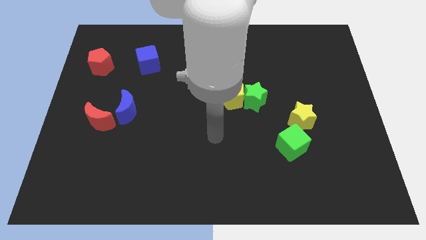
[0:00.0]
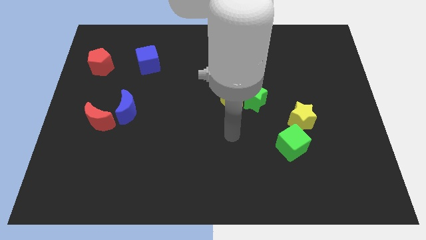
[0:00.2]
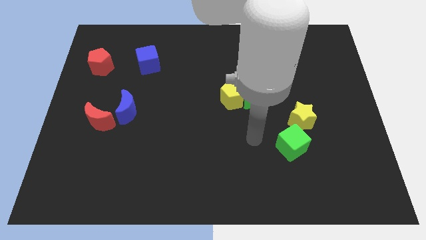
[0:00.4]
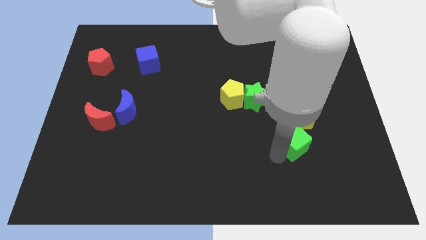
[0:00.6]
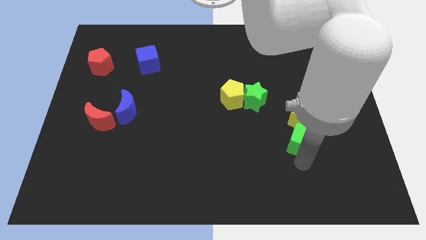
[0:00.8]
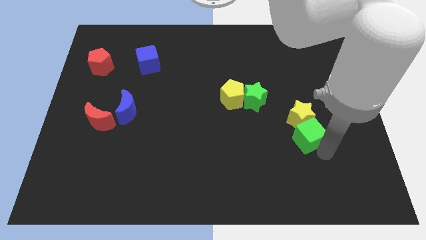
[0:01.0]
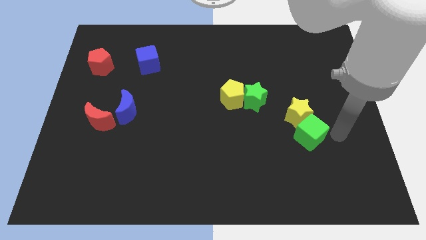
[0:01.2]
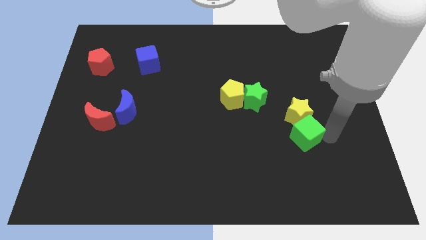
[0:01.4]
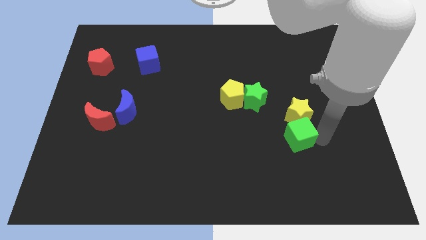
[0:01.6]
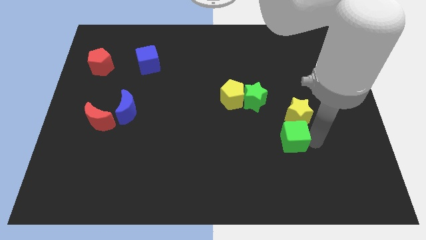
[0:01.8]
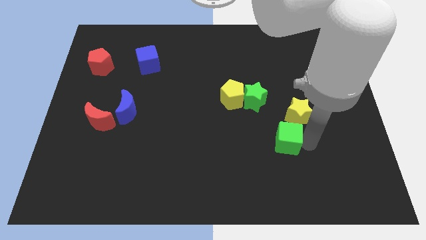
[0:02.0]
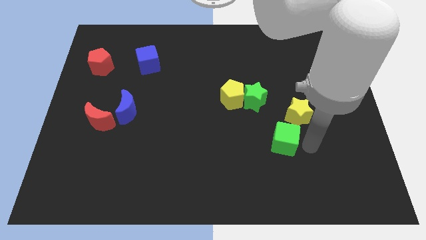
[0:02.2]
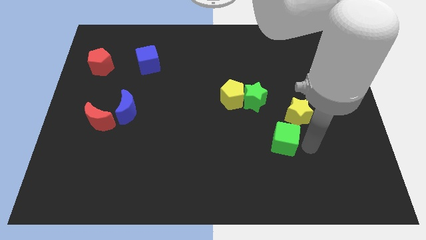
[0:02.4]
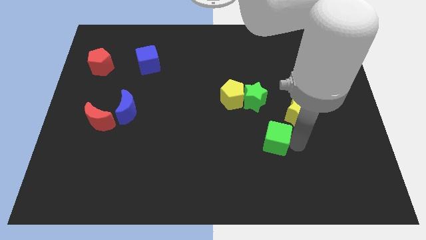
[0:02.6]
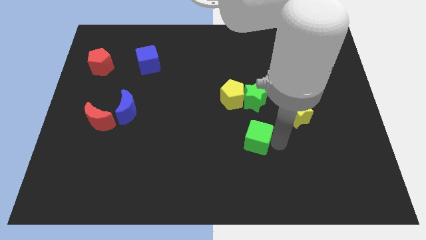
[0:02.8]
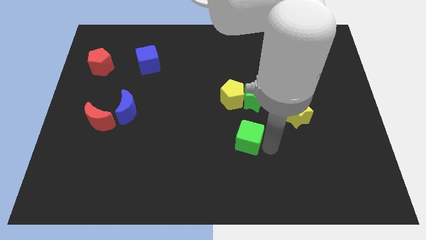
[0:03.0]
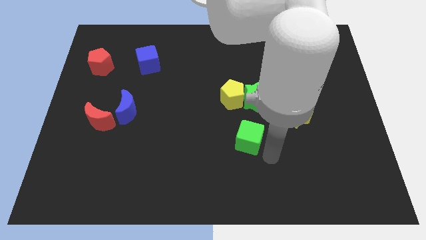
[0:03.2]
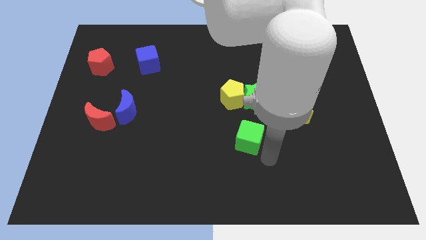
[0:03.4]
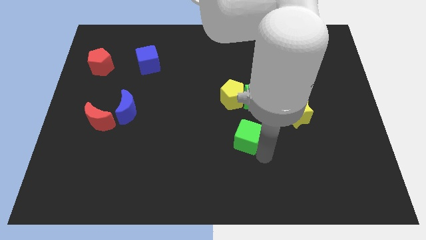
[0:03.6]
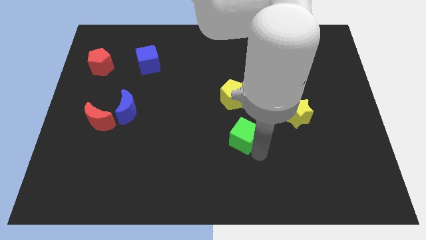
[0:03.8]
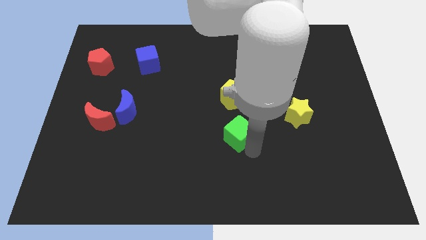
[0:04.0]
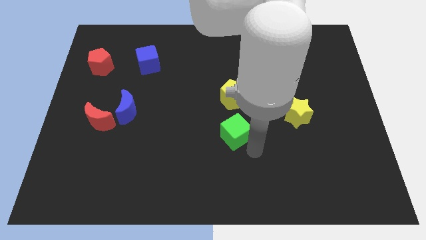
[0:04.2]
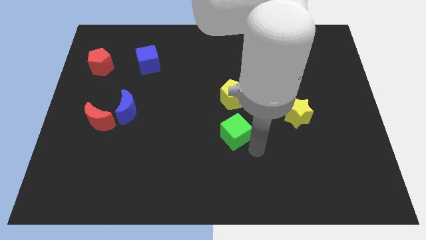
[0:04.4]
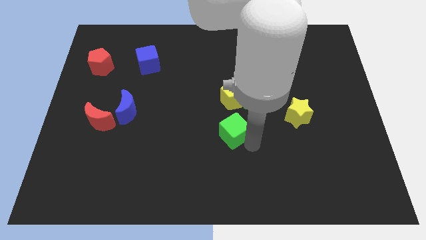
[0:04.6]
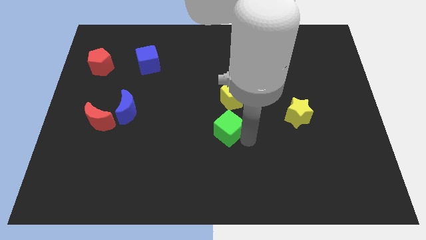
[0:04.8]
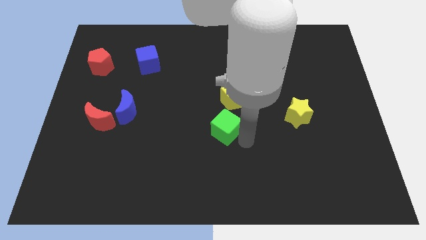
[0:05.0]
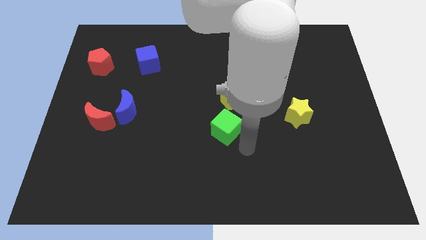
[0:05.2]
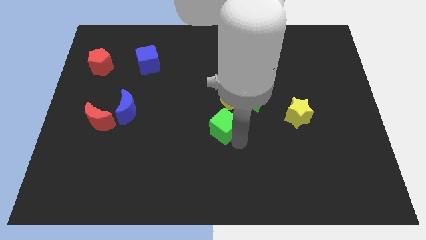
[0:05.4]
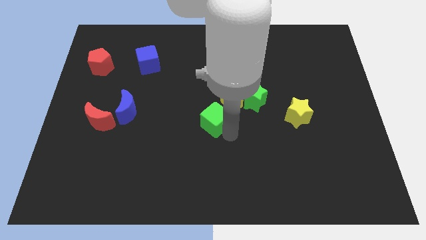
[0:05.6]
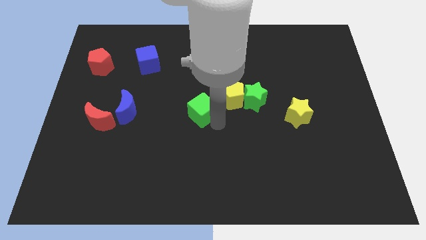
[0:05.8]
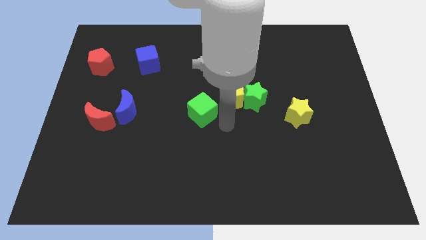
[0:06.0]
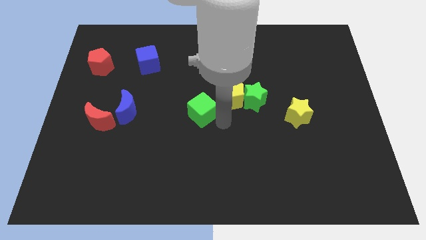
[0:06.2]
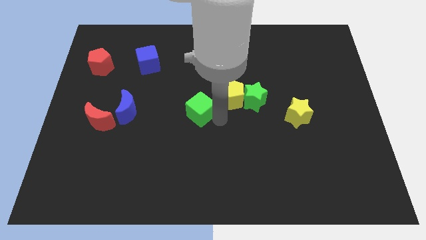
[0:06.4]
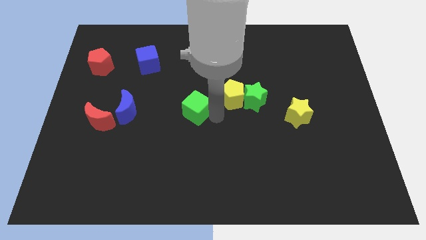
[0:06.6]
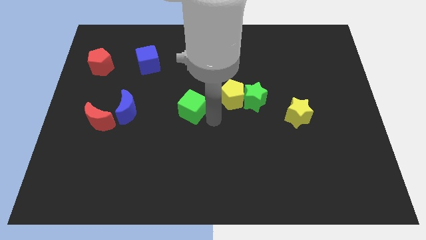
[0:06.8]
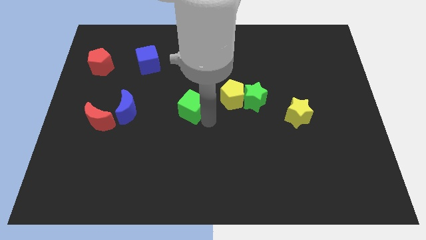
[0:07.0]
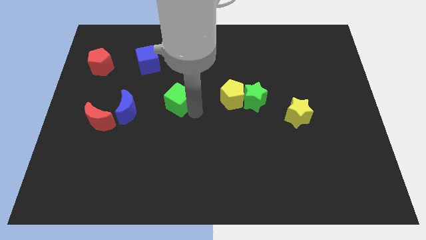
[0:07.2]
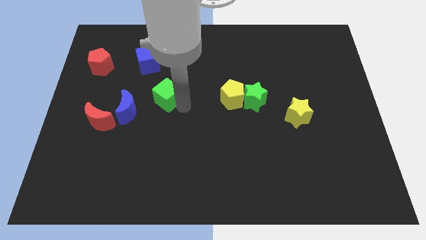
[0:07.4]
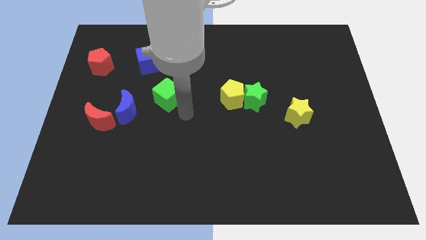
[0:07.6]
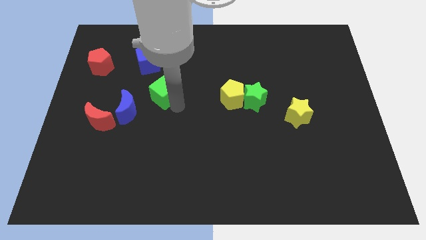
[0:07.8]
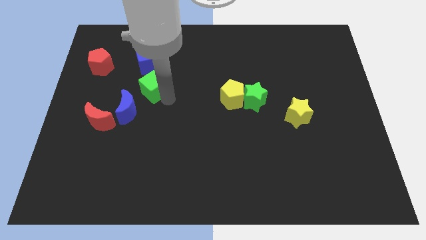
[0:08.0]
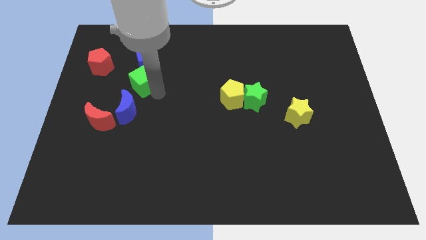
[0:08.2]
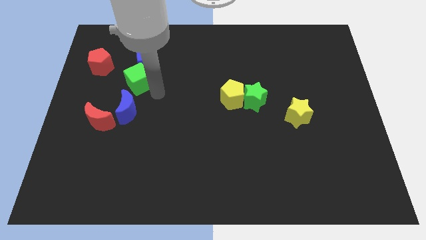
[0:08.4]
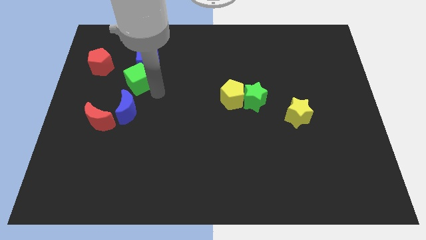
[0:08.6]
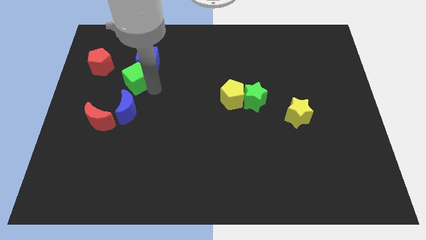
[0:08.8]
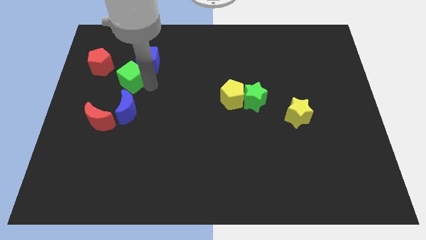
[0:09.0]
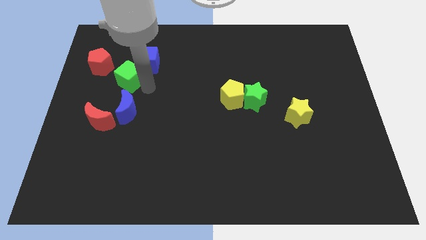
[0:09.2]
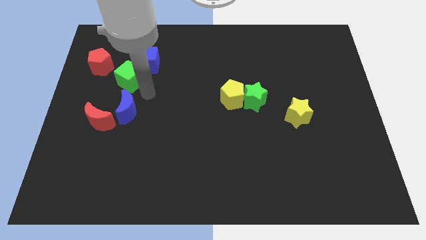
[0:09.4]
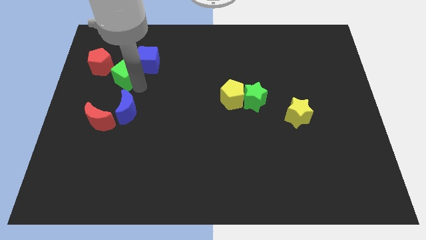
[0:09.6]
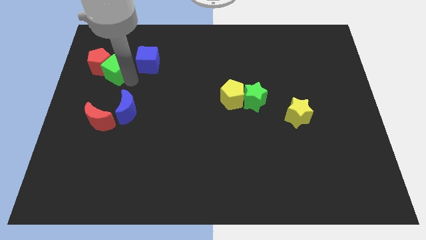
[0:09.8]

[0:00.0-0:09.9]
move the green cube next to the red pentagon

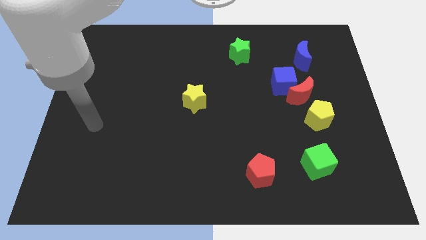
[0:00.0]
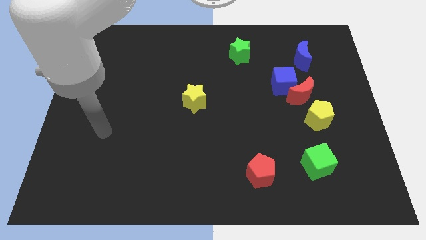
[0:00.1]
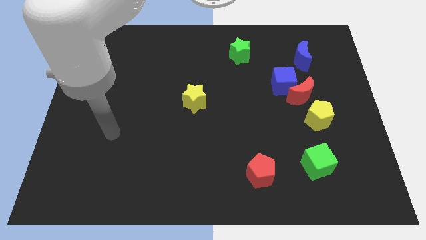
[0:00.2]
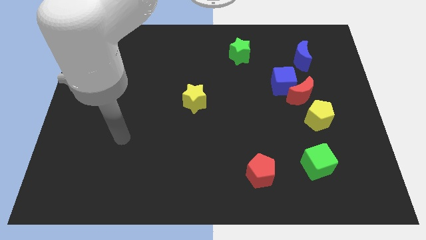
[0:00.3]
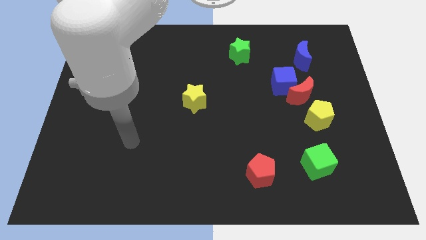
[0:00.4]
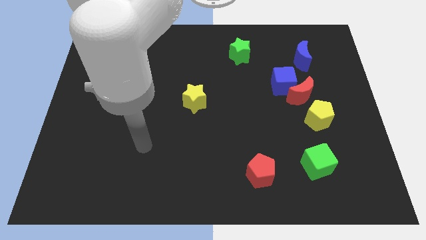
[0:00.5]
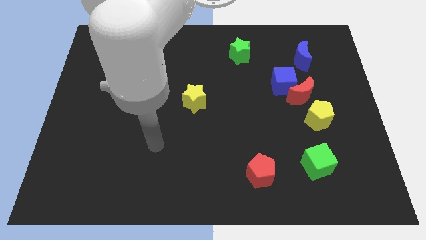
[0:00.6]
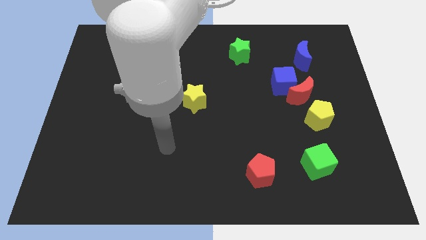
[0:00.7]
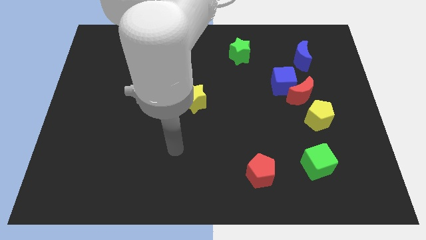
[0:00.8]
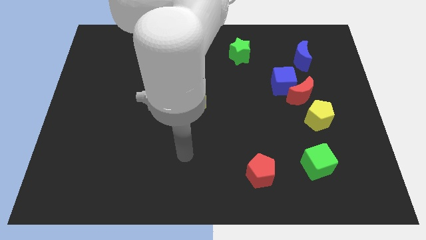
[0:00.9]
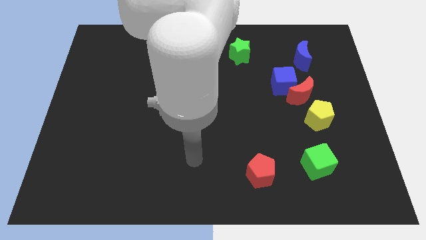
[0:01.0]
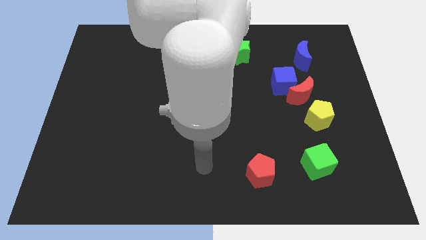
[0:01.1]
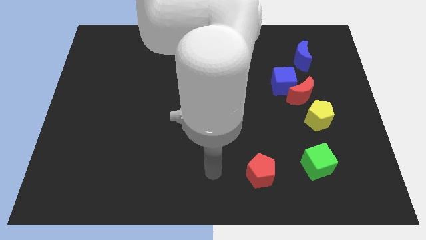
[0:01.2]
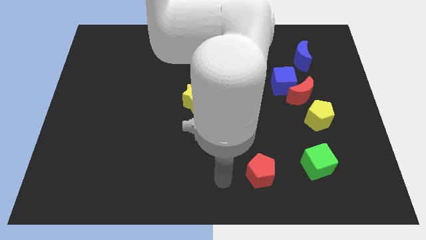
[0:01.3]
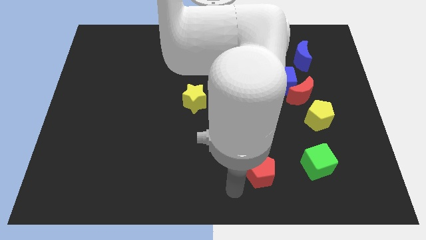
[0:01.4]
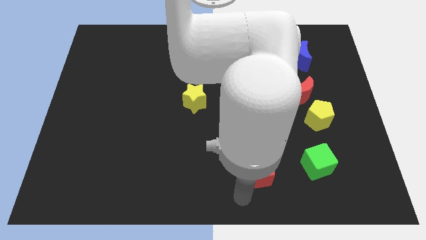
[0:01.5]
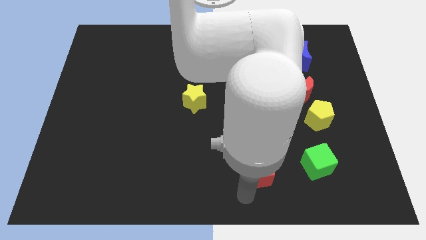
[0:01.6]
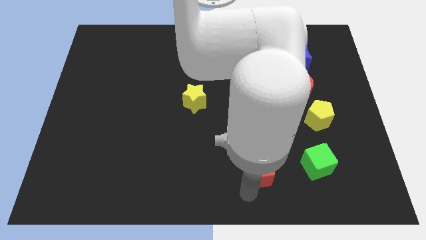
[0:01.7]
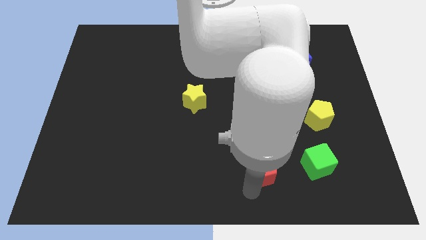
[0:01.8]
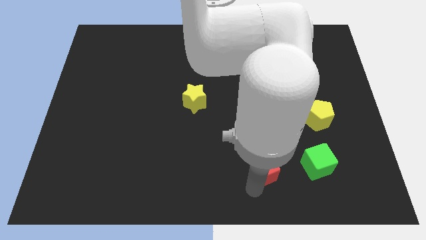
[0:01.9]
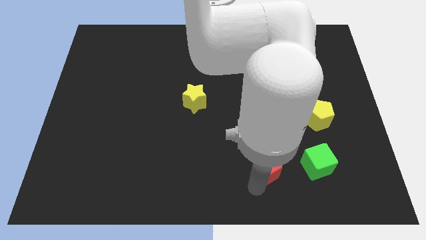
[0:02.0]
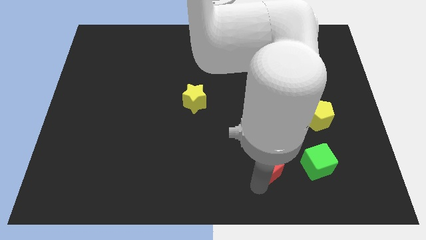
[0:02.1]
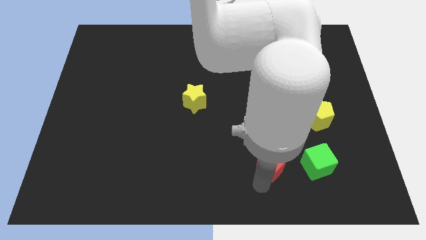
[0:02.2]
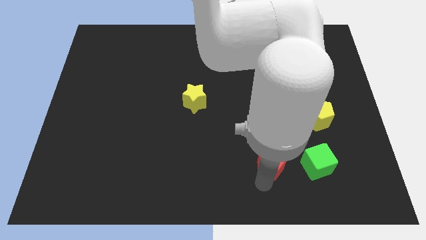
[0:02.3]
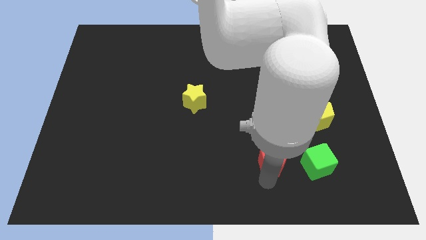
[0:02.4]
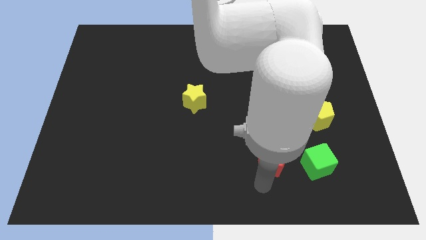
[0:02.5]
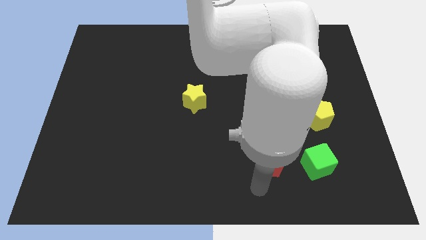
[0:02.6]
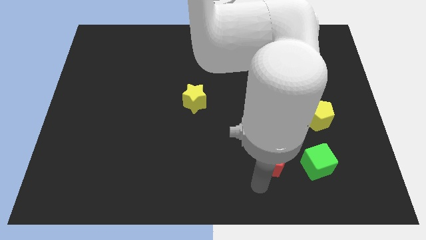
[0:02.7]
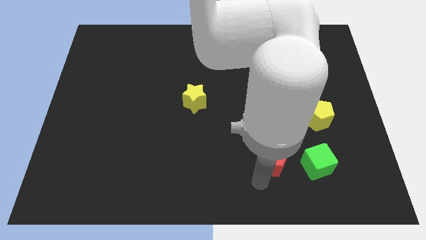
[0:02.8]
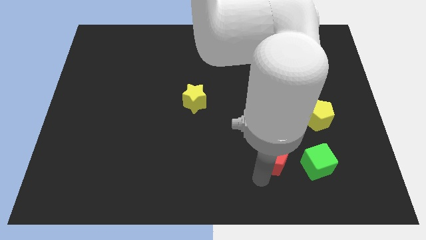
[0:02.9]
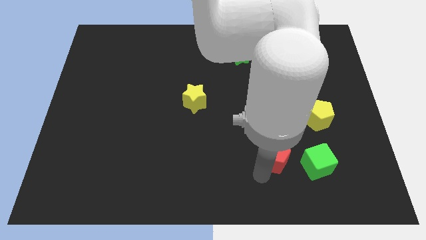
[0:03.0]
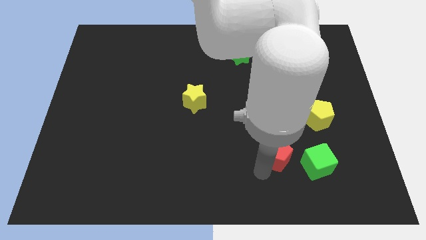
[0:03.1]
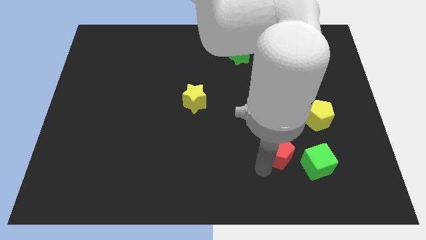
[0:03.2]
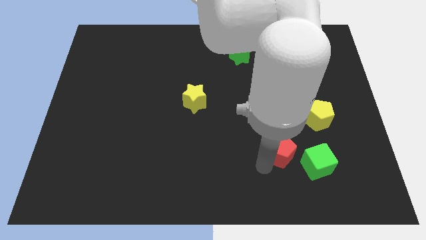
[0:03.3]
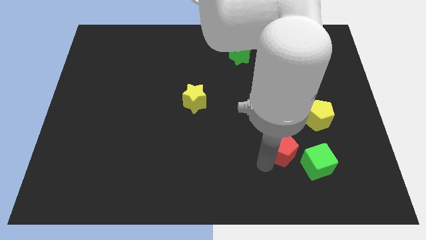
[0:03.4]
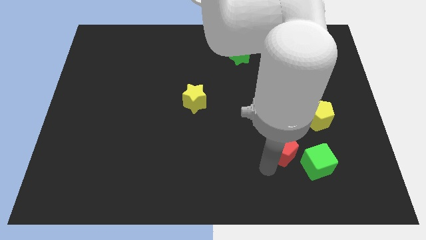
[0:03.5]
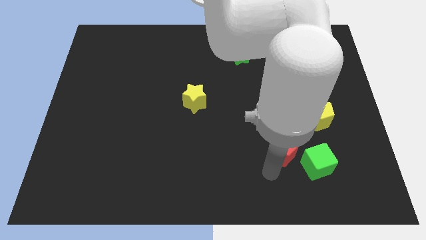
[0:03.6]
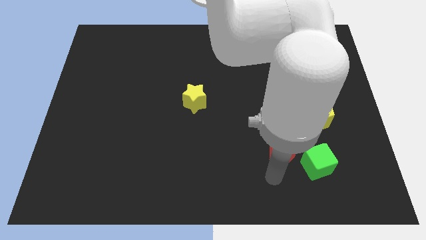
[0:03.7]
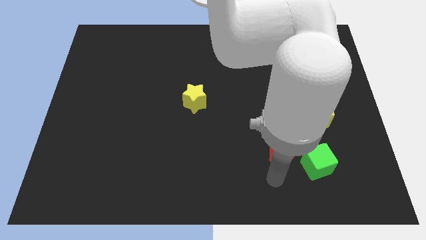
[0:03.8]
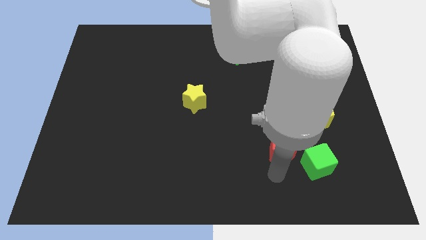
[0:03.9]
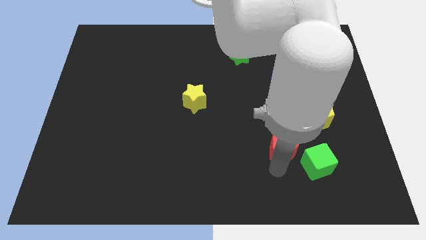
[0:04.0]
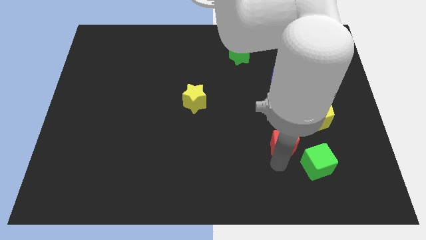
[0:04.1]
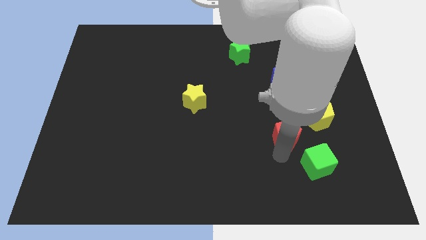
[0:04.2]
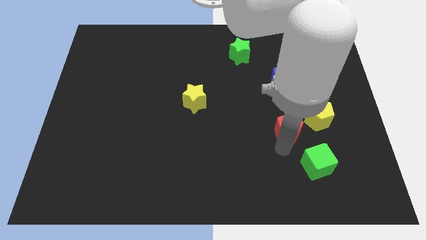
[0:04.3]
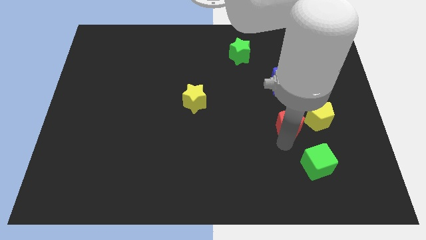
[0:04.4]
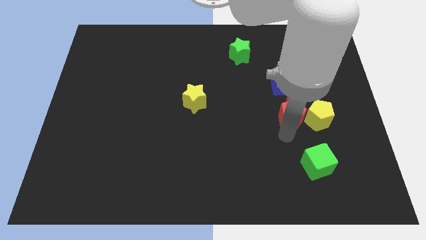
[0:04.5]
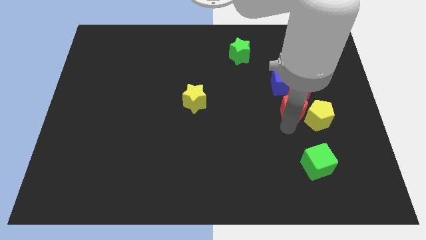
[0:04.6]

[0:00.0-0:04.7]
push the red pentagon towards the red moon
